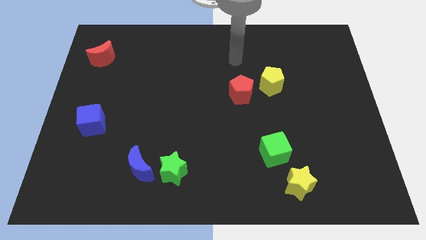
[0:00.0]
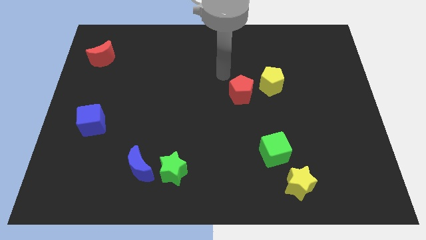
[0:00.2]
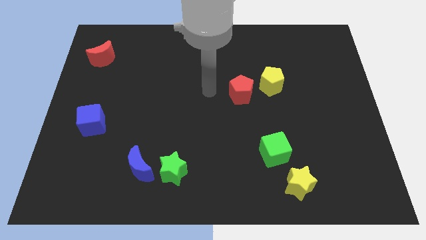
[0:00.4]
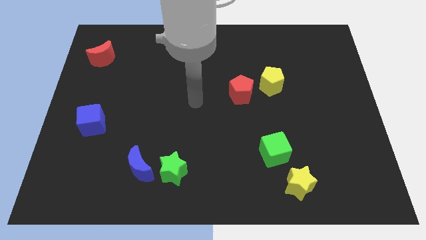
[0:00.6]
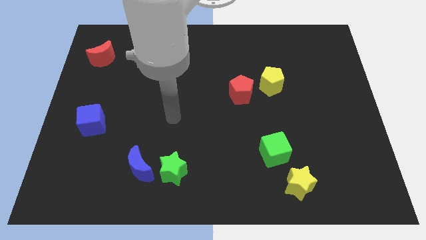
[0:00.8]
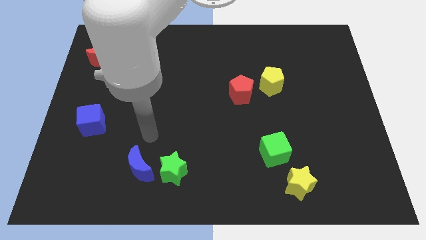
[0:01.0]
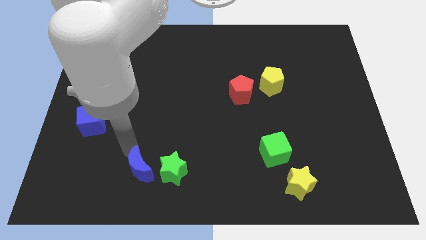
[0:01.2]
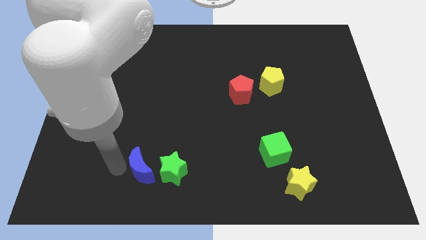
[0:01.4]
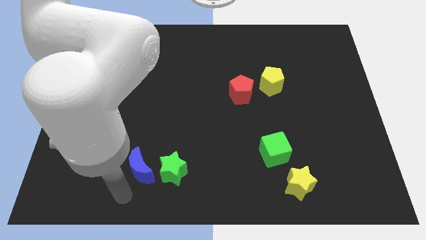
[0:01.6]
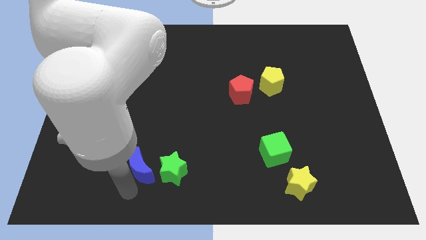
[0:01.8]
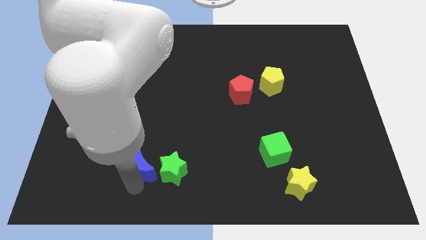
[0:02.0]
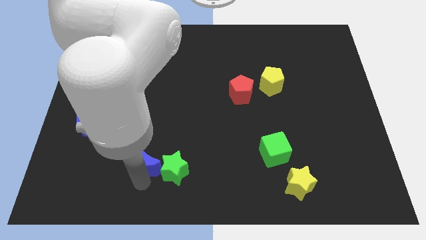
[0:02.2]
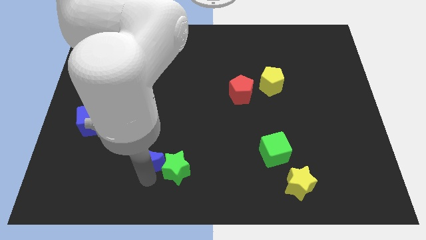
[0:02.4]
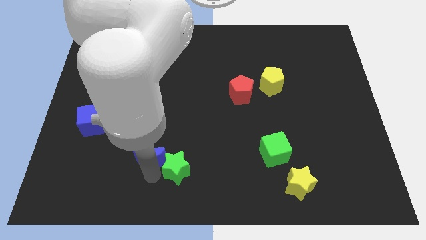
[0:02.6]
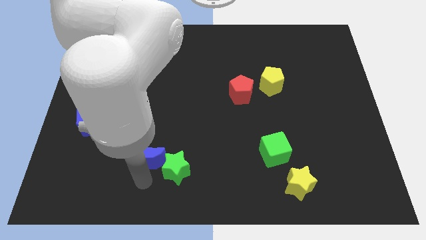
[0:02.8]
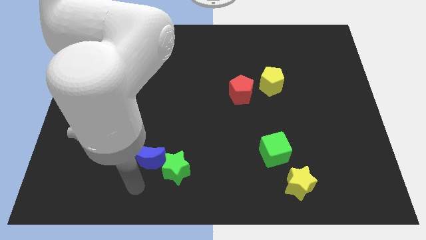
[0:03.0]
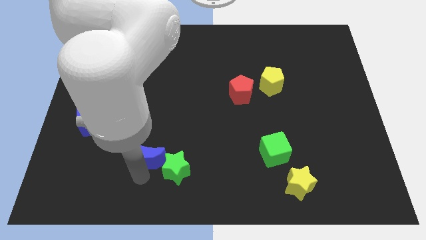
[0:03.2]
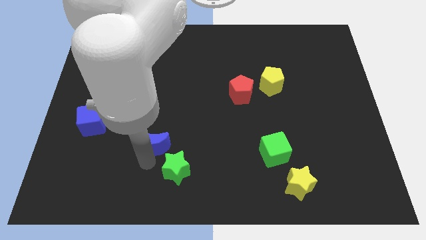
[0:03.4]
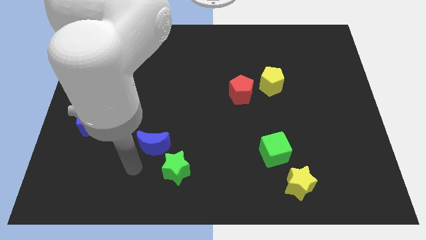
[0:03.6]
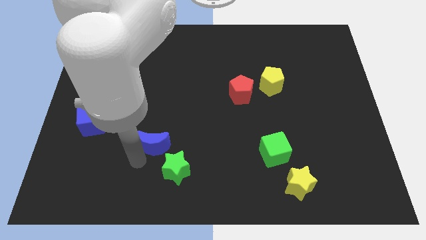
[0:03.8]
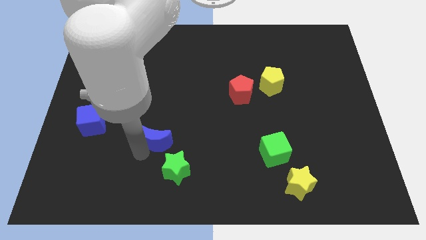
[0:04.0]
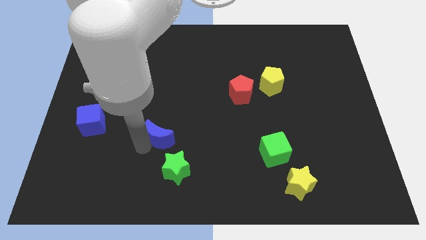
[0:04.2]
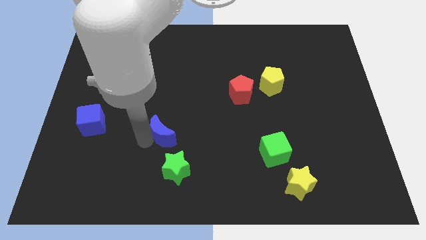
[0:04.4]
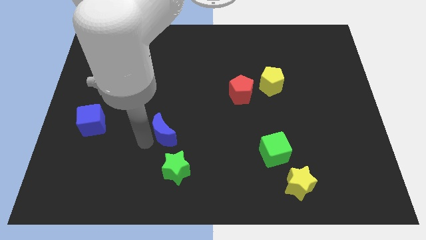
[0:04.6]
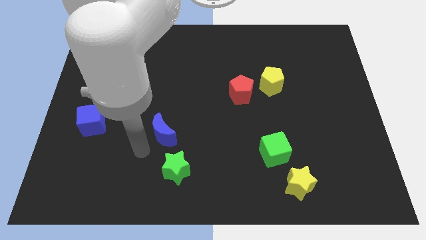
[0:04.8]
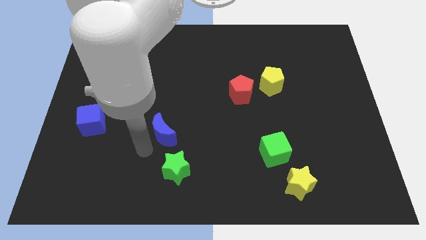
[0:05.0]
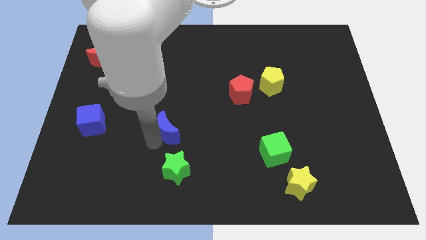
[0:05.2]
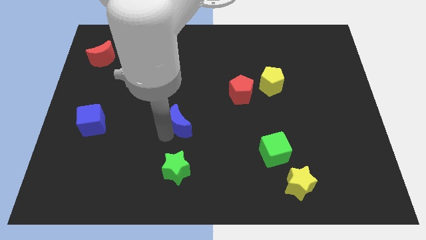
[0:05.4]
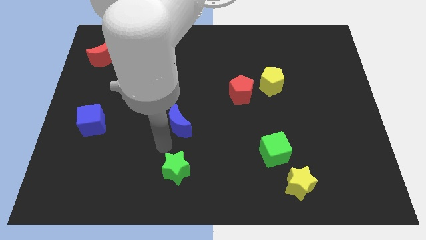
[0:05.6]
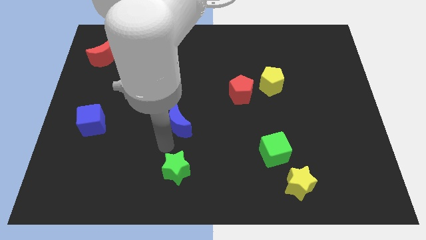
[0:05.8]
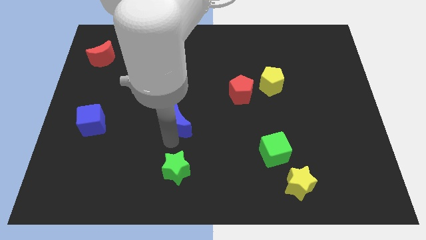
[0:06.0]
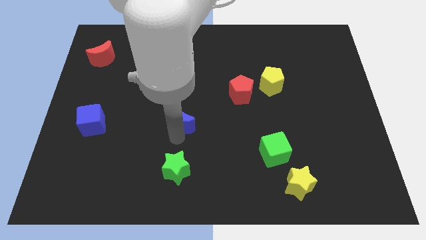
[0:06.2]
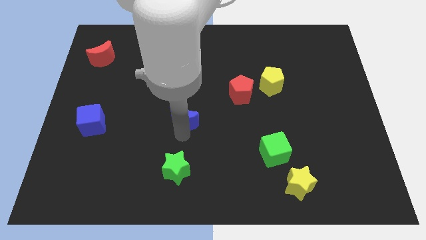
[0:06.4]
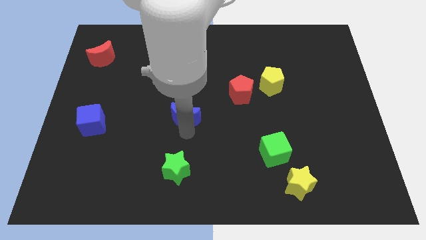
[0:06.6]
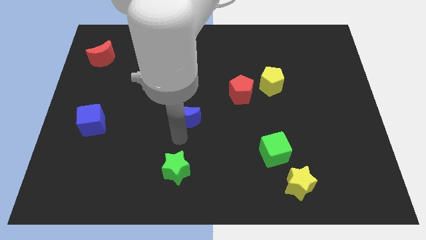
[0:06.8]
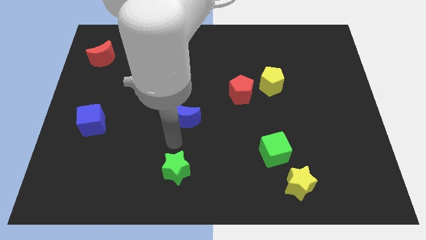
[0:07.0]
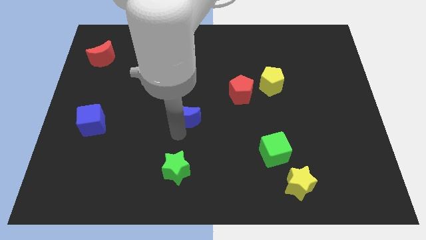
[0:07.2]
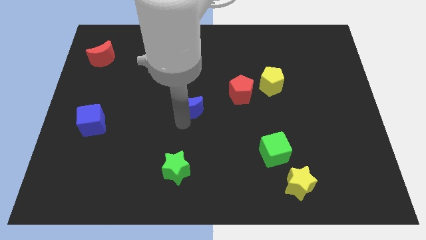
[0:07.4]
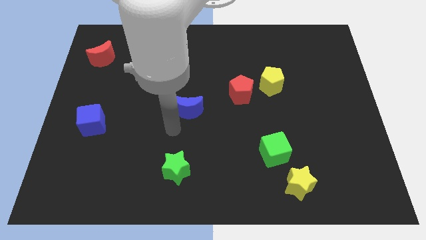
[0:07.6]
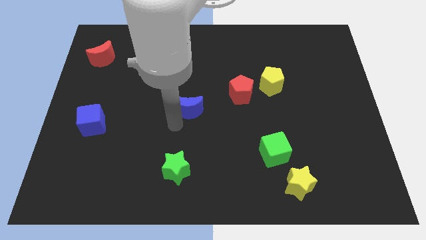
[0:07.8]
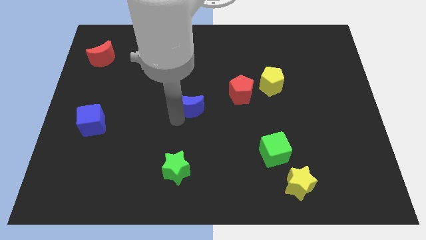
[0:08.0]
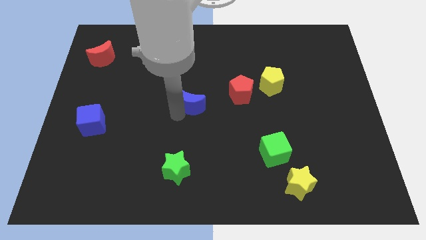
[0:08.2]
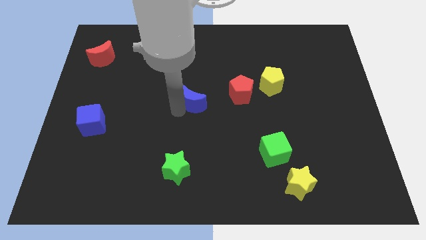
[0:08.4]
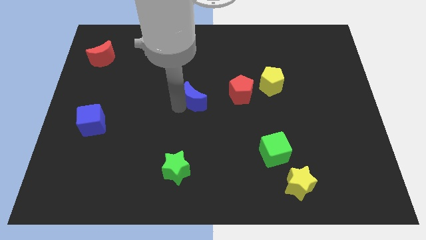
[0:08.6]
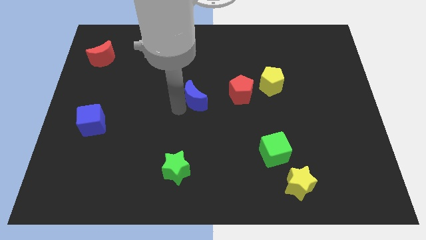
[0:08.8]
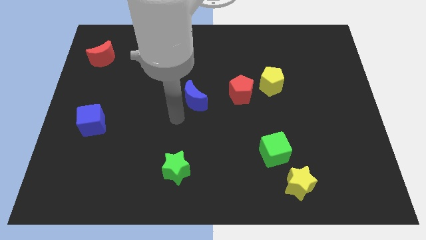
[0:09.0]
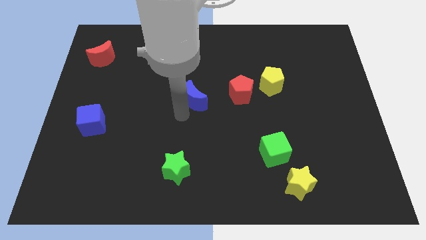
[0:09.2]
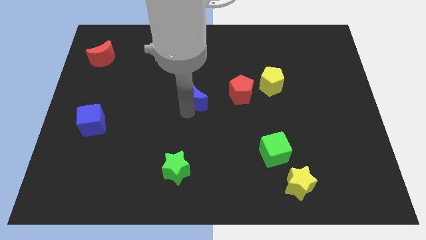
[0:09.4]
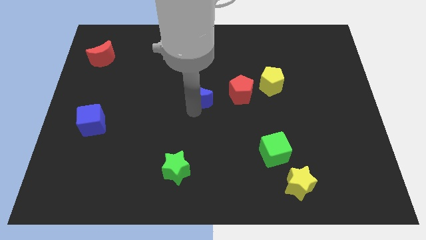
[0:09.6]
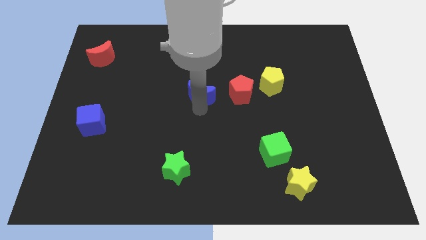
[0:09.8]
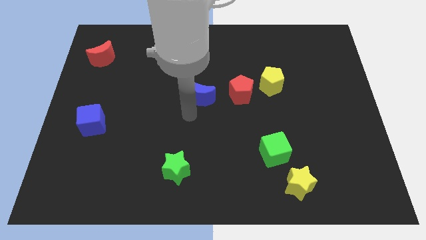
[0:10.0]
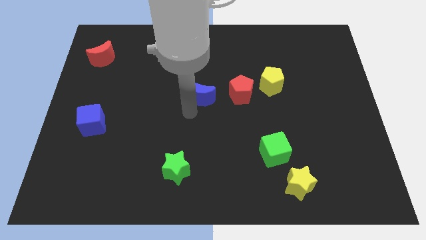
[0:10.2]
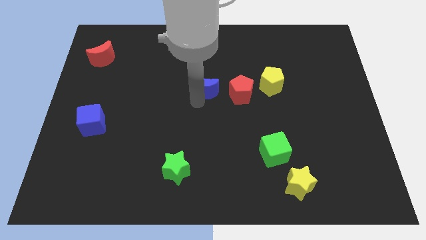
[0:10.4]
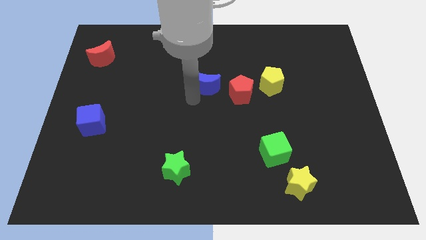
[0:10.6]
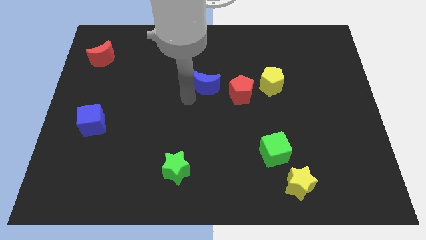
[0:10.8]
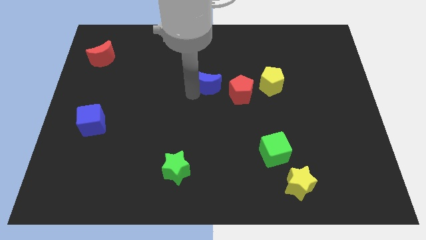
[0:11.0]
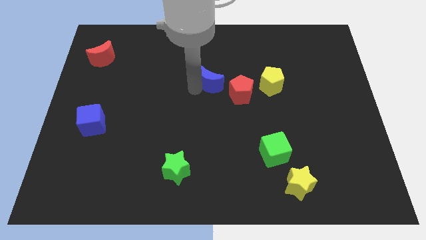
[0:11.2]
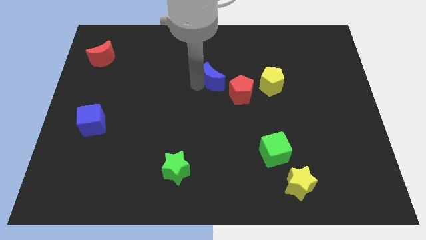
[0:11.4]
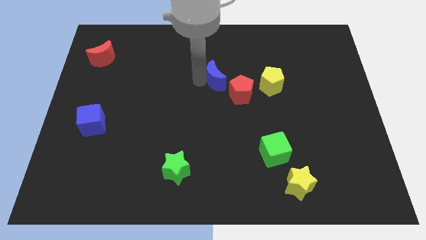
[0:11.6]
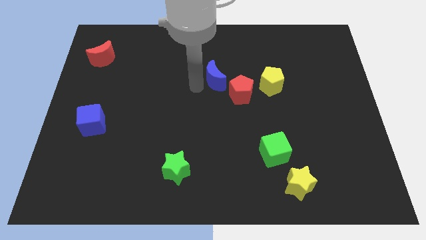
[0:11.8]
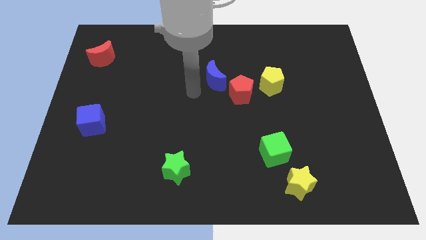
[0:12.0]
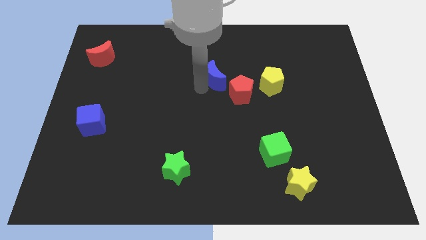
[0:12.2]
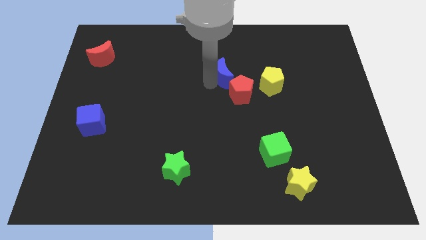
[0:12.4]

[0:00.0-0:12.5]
slide the blue moon to the top side of the red pentagon

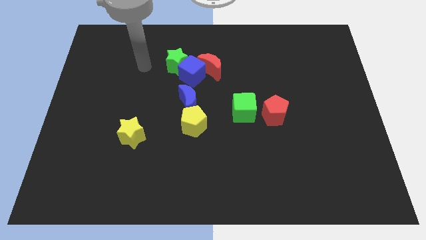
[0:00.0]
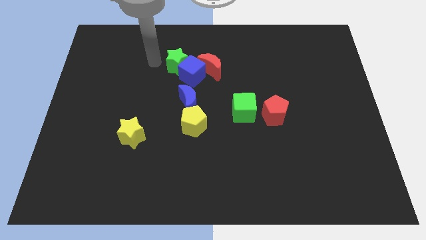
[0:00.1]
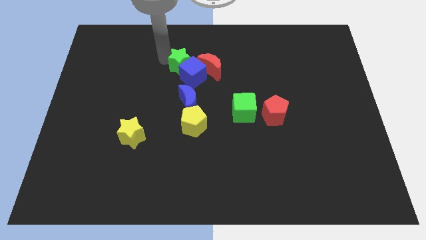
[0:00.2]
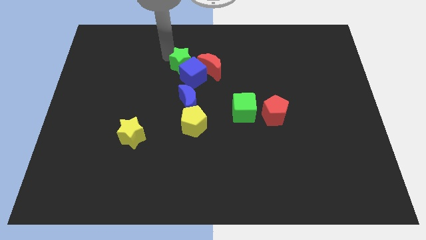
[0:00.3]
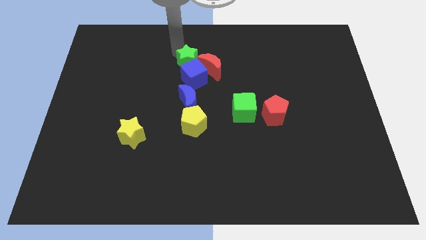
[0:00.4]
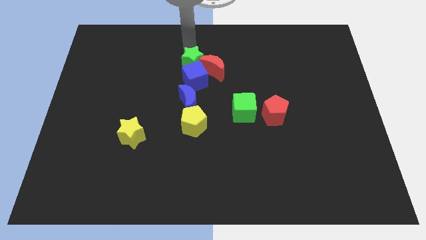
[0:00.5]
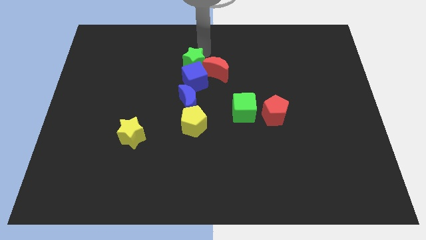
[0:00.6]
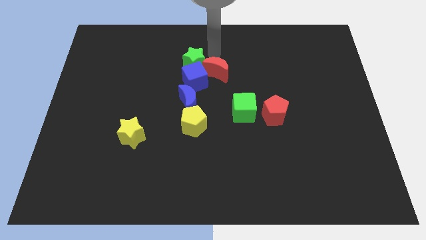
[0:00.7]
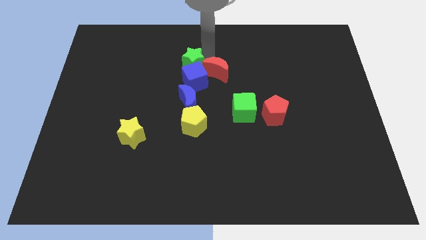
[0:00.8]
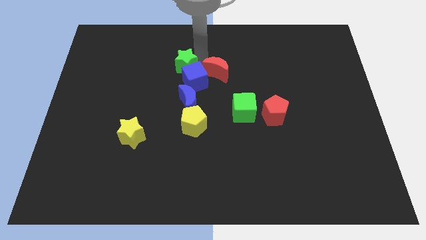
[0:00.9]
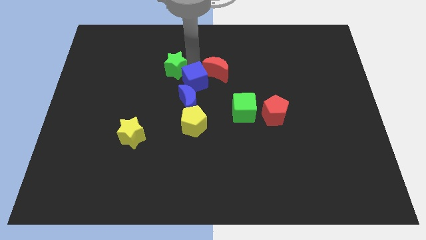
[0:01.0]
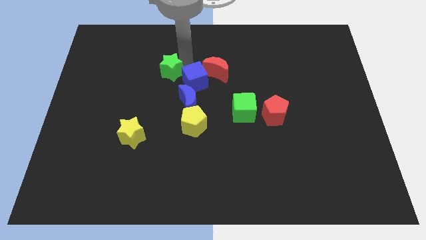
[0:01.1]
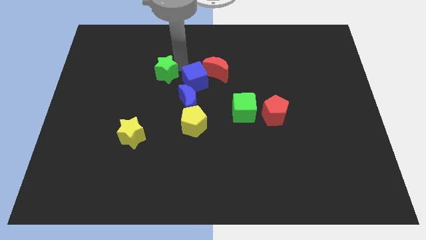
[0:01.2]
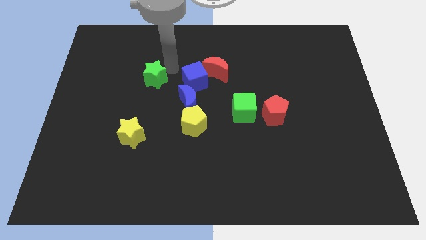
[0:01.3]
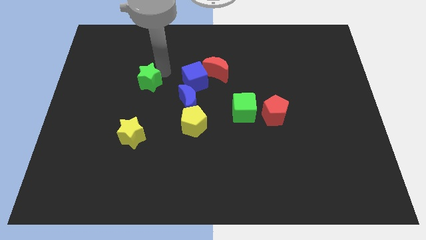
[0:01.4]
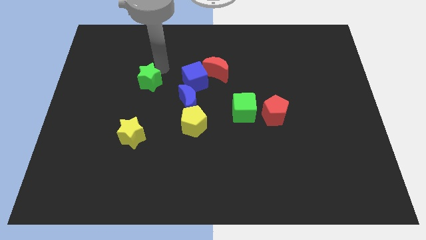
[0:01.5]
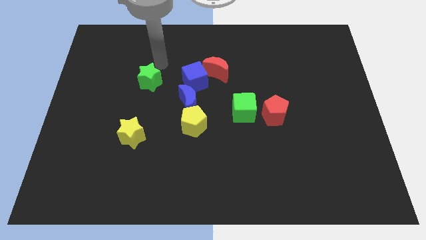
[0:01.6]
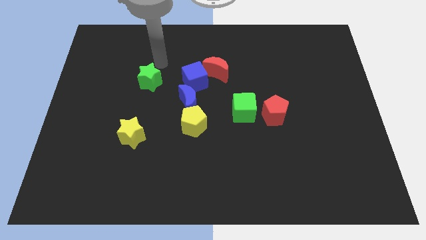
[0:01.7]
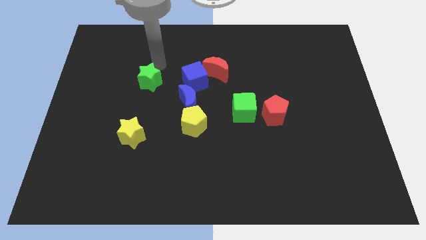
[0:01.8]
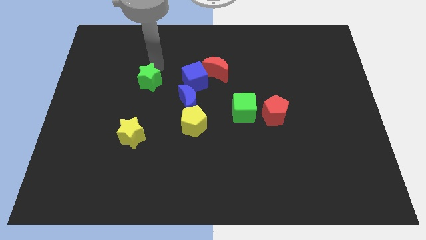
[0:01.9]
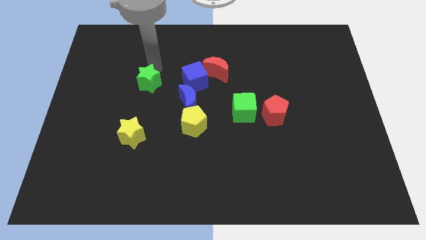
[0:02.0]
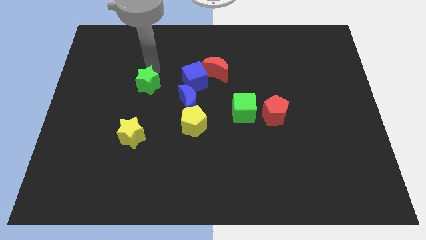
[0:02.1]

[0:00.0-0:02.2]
slide the green star to the top side of the yellow star
